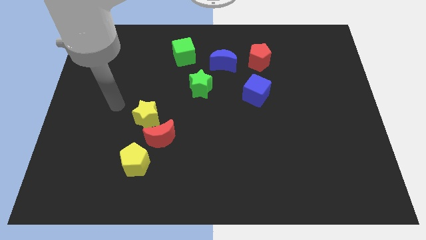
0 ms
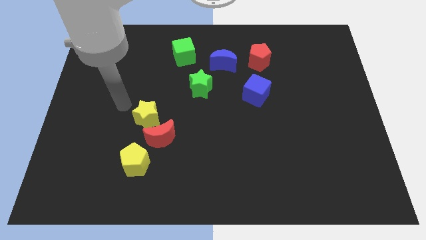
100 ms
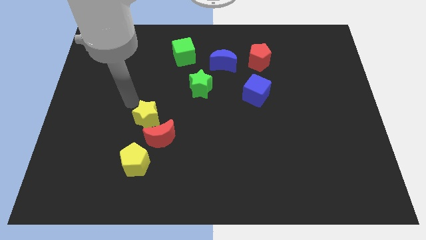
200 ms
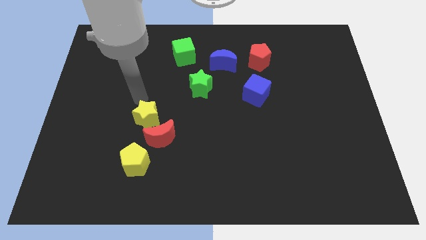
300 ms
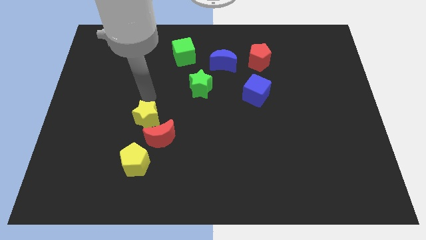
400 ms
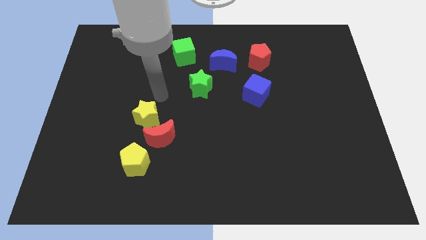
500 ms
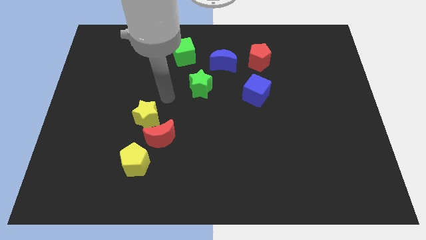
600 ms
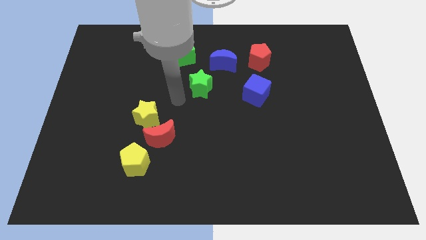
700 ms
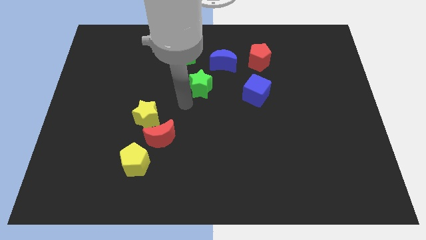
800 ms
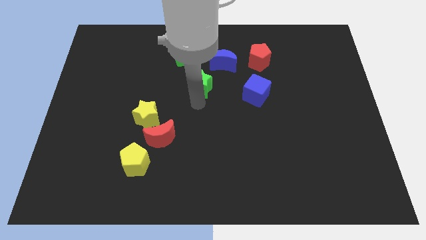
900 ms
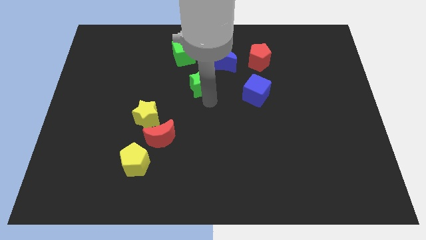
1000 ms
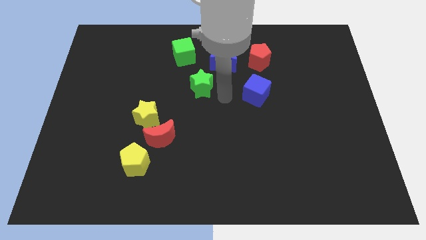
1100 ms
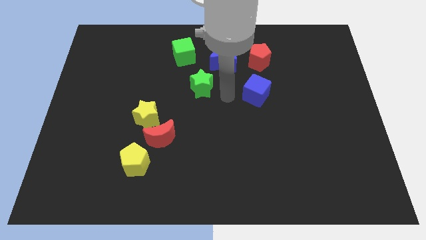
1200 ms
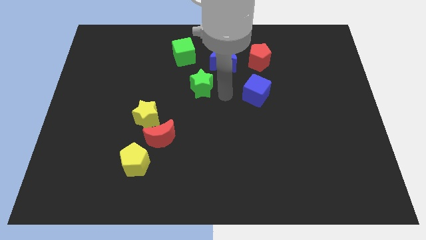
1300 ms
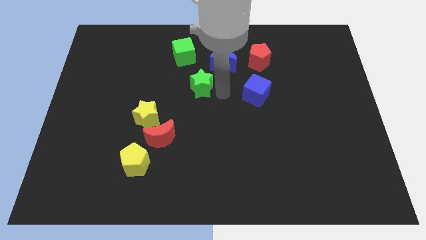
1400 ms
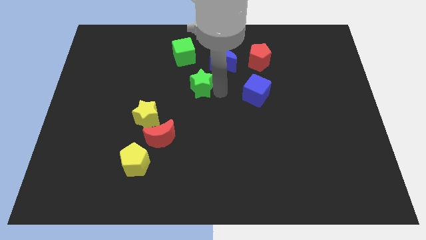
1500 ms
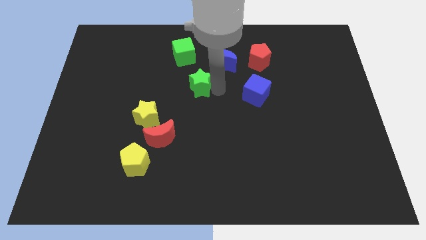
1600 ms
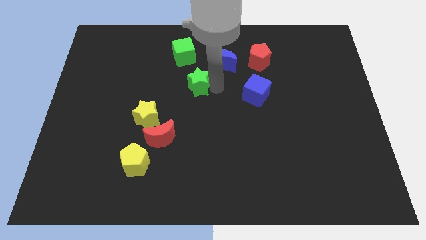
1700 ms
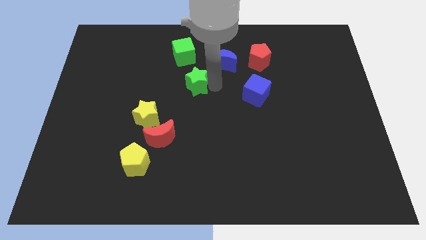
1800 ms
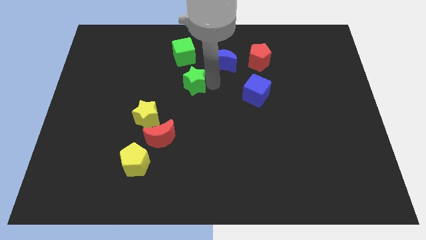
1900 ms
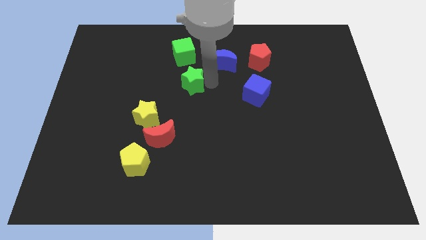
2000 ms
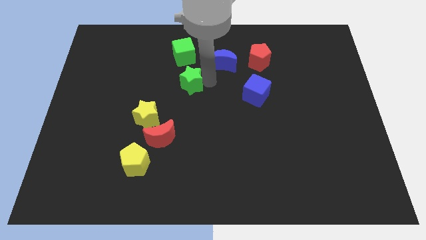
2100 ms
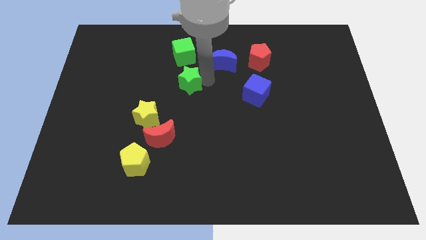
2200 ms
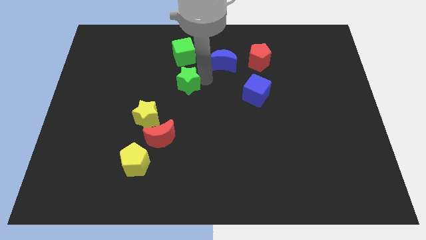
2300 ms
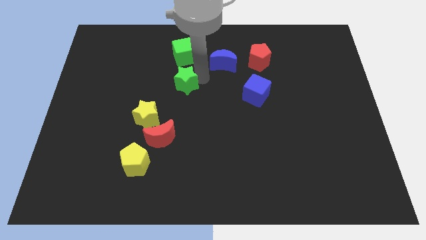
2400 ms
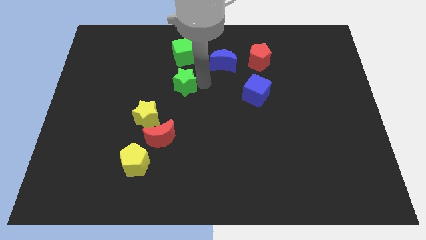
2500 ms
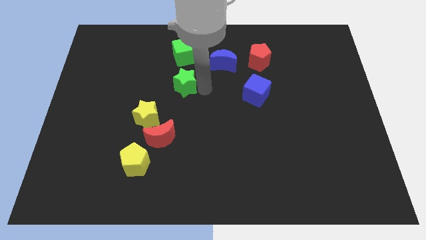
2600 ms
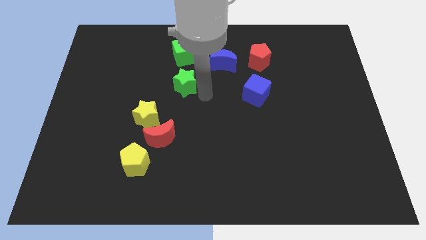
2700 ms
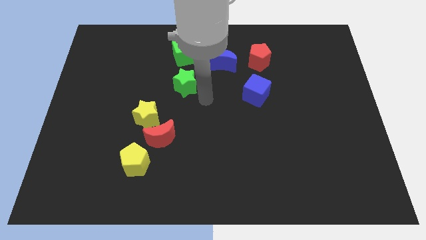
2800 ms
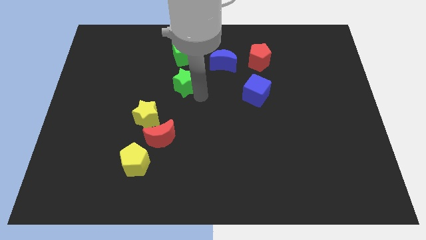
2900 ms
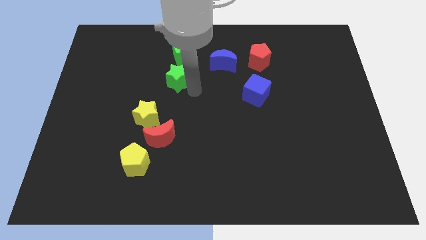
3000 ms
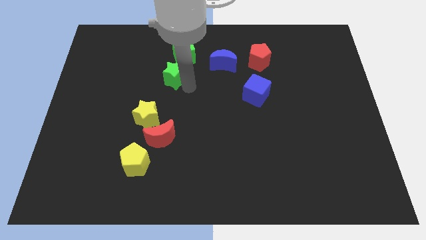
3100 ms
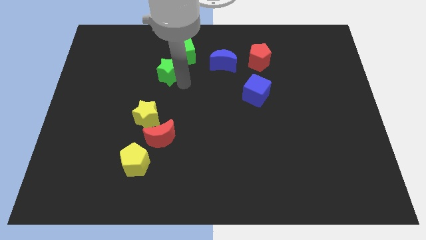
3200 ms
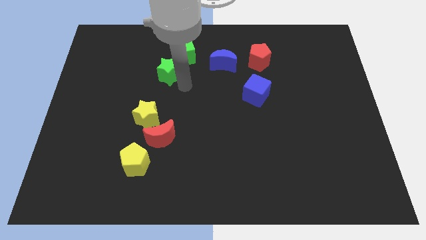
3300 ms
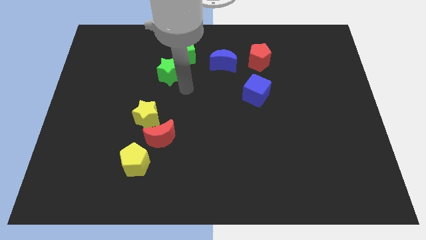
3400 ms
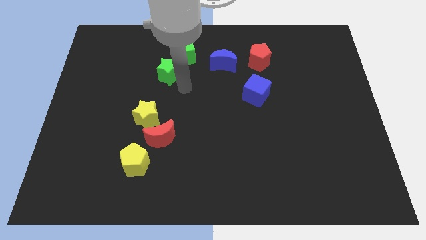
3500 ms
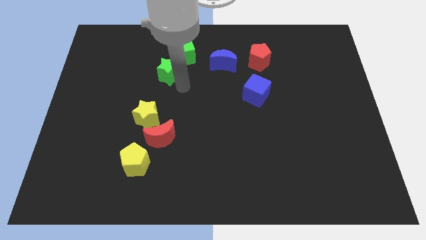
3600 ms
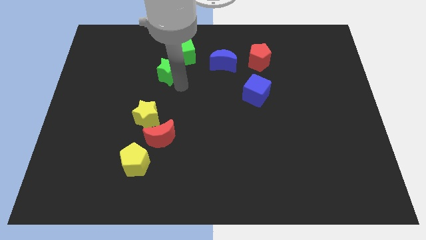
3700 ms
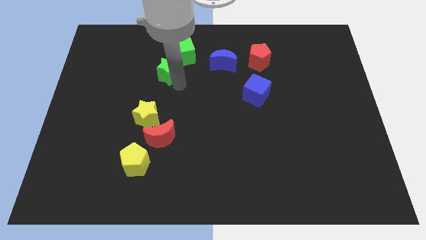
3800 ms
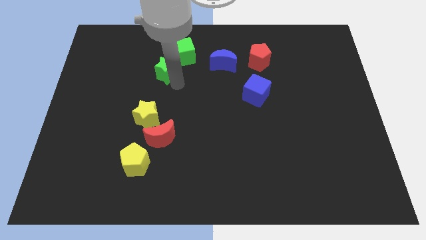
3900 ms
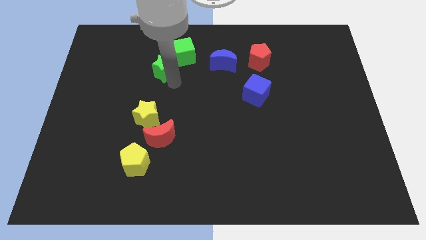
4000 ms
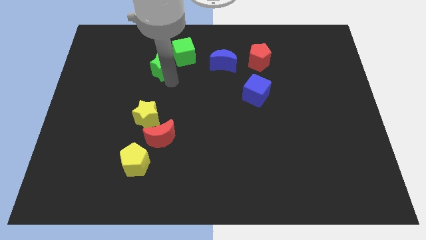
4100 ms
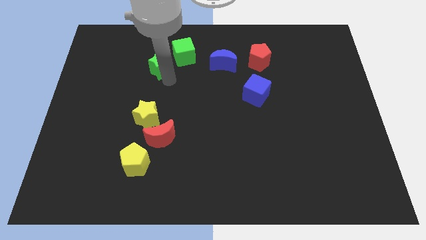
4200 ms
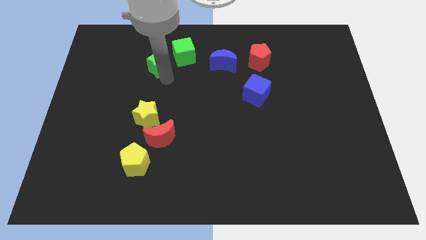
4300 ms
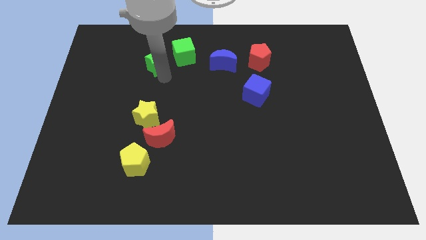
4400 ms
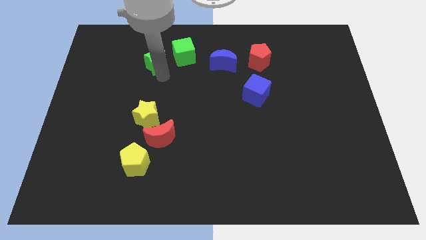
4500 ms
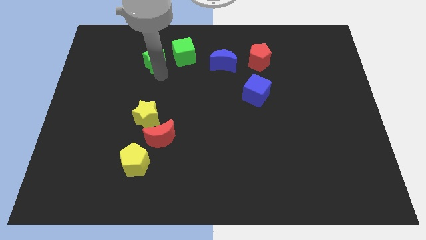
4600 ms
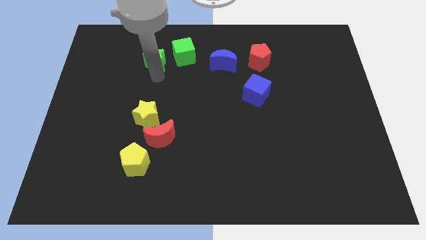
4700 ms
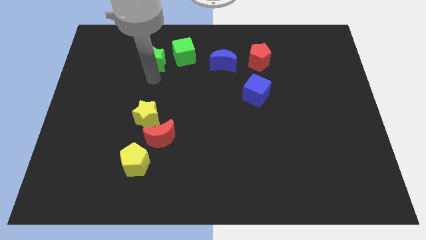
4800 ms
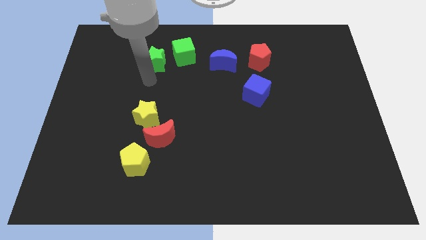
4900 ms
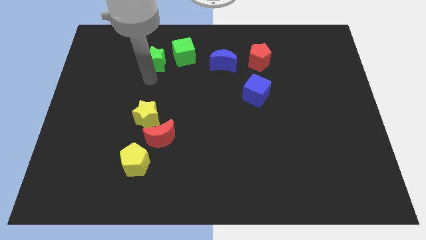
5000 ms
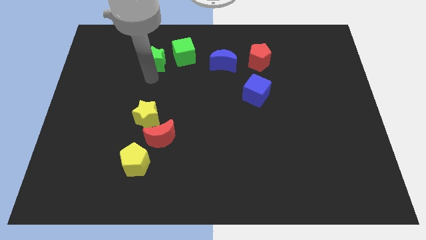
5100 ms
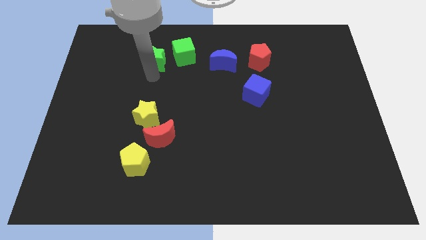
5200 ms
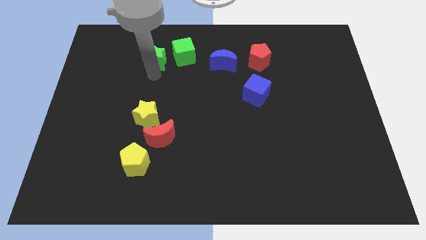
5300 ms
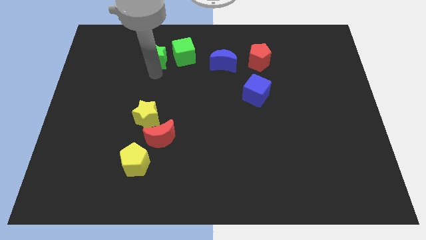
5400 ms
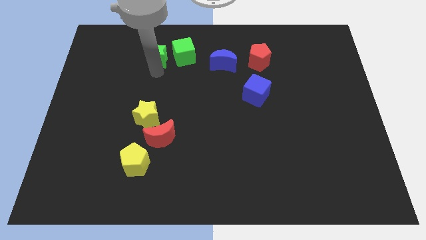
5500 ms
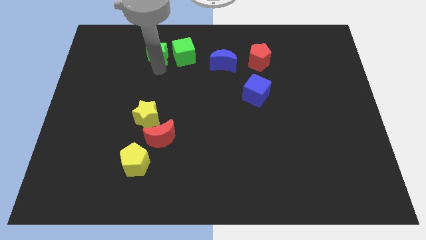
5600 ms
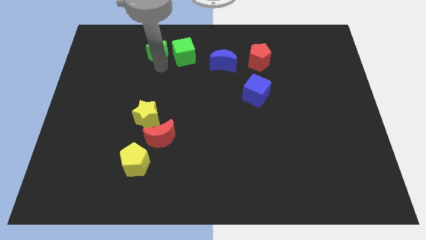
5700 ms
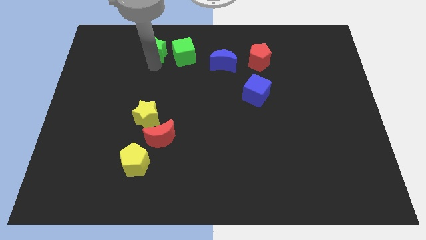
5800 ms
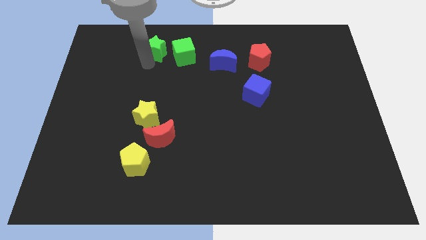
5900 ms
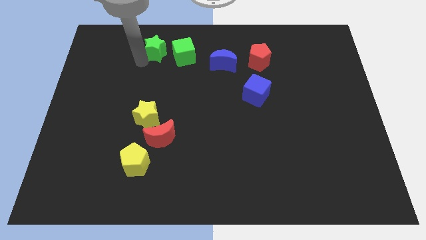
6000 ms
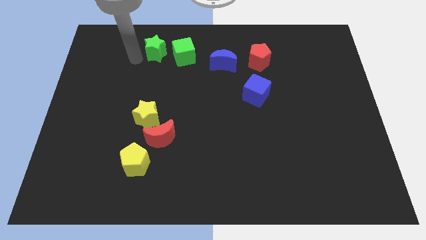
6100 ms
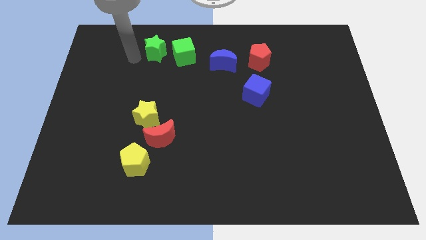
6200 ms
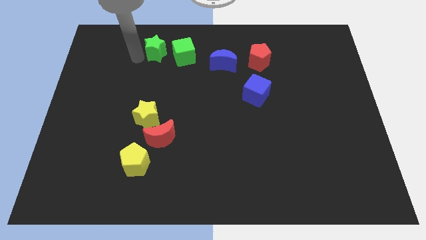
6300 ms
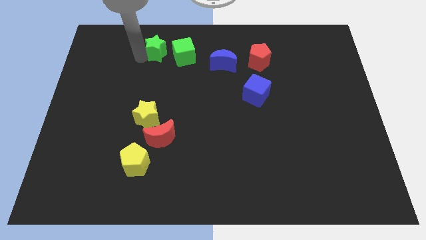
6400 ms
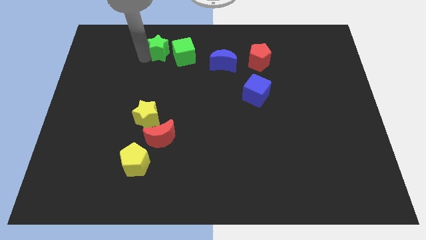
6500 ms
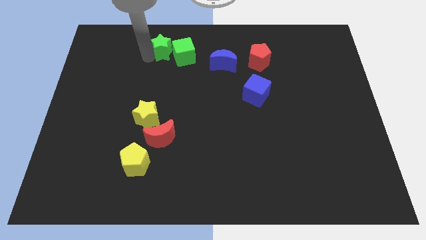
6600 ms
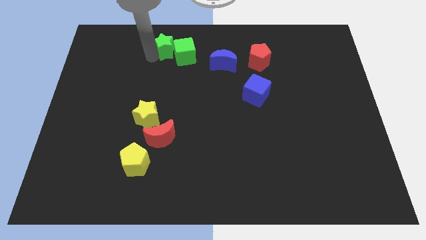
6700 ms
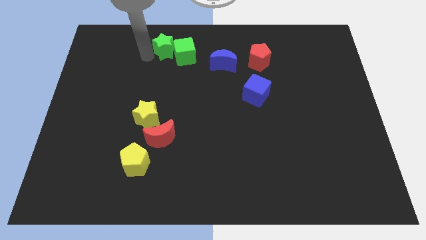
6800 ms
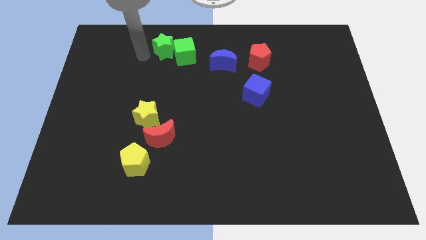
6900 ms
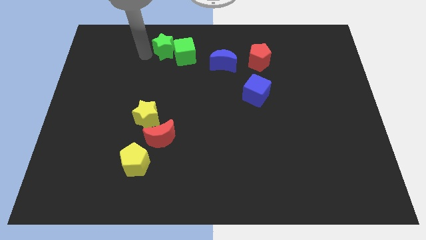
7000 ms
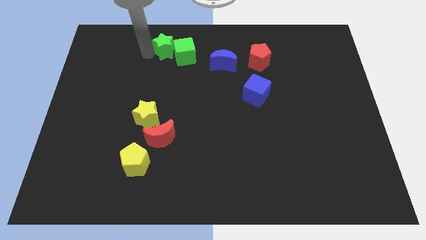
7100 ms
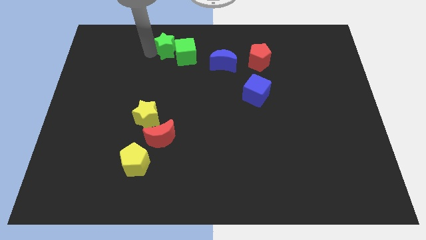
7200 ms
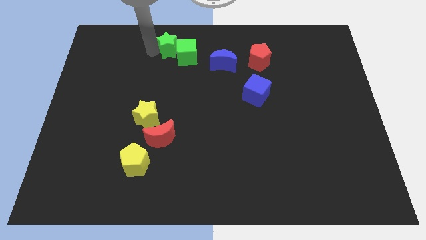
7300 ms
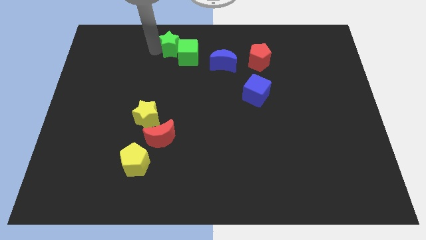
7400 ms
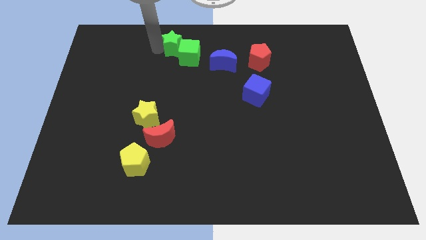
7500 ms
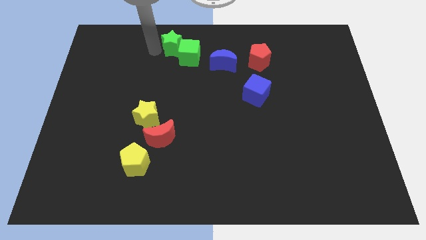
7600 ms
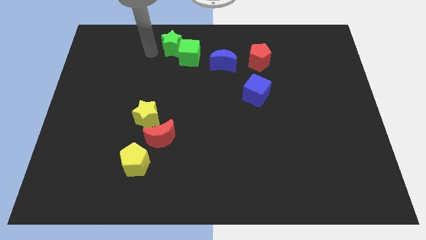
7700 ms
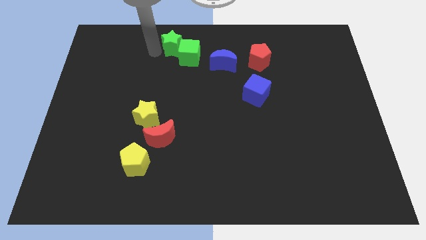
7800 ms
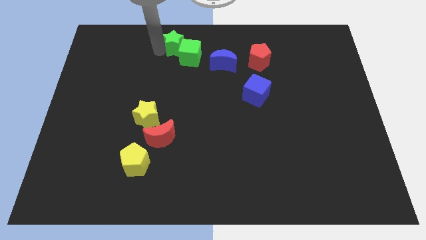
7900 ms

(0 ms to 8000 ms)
slide the green star to the towards your base
